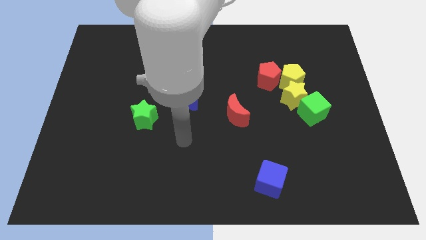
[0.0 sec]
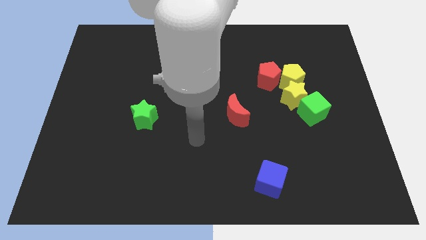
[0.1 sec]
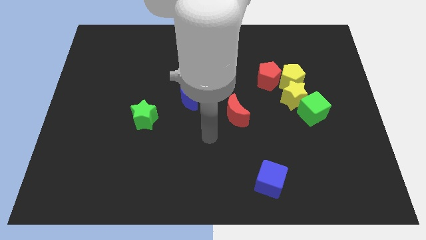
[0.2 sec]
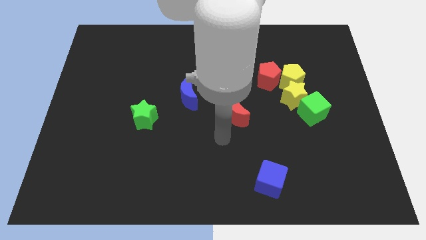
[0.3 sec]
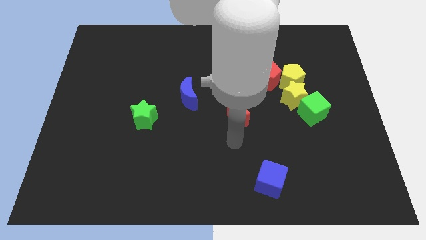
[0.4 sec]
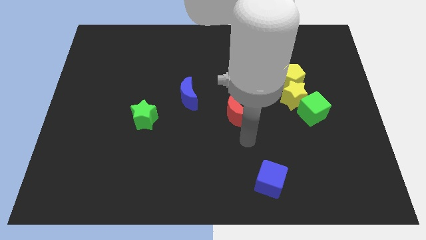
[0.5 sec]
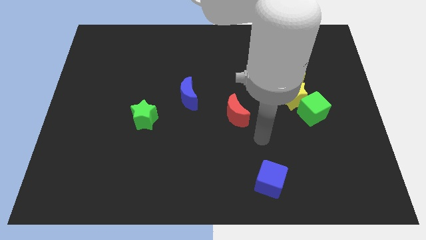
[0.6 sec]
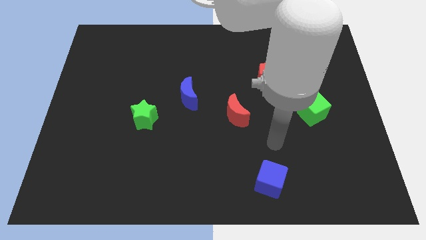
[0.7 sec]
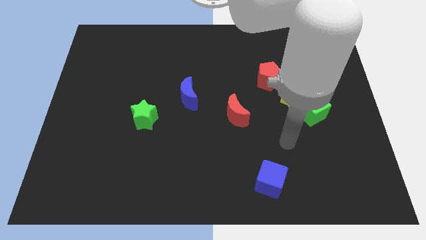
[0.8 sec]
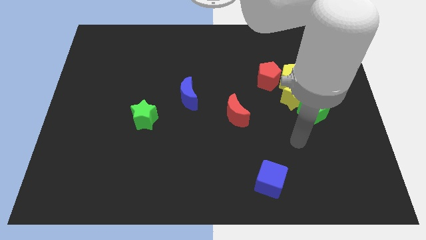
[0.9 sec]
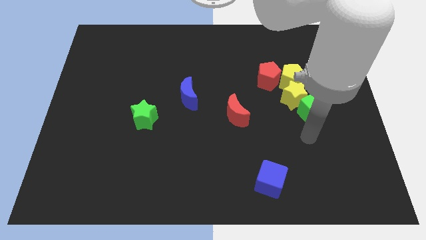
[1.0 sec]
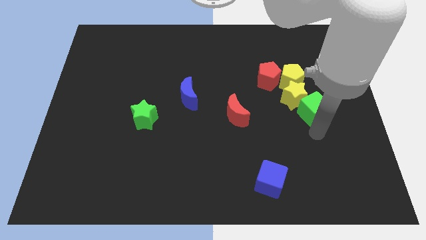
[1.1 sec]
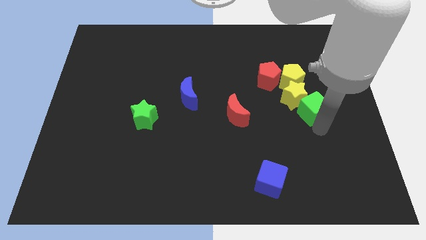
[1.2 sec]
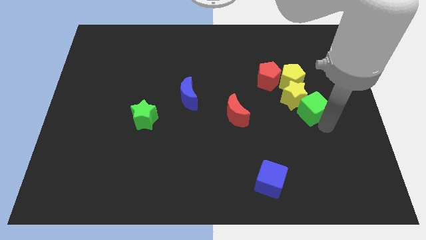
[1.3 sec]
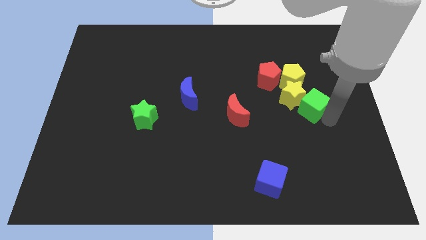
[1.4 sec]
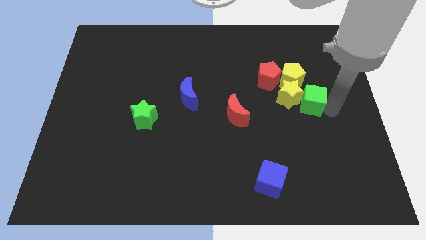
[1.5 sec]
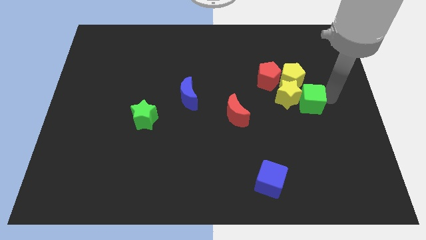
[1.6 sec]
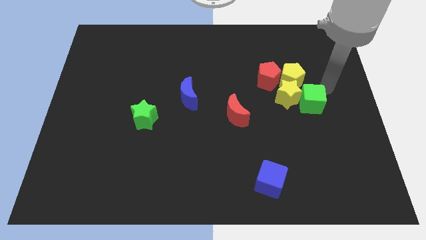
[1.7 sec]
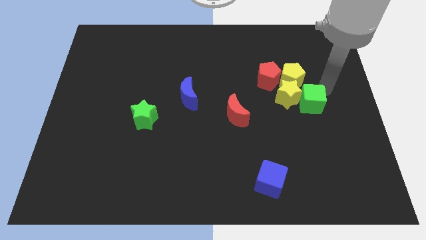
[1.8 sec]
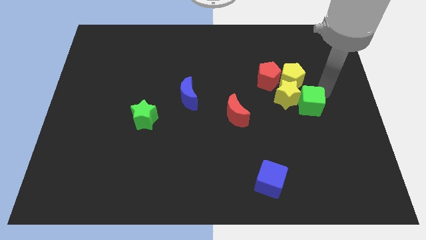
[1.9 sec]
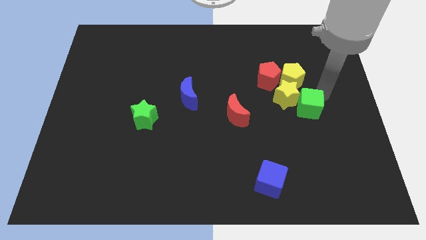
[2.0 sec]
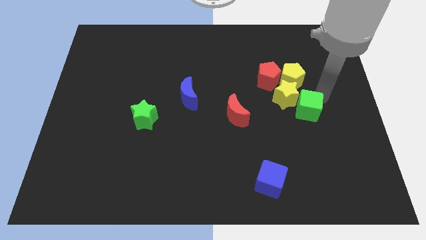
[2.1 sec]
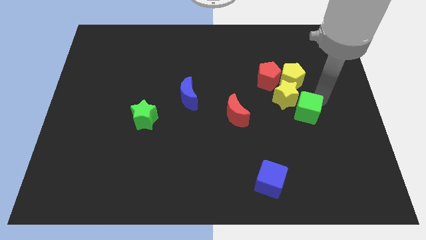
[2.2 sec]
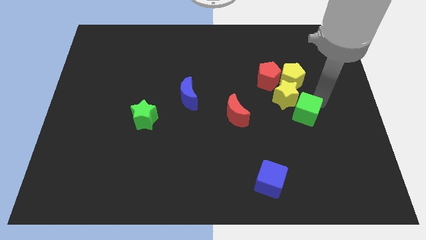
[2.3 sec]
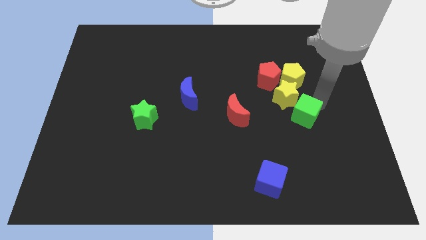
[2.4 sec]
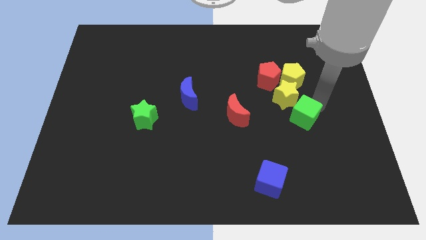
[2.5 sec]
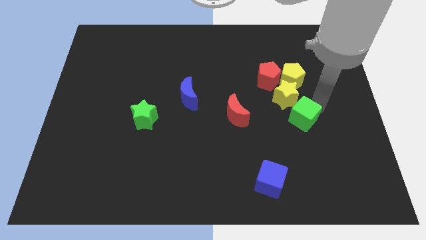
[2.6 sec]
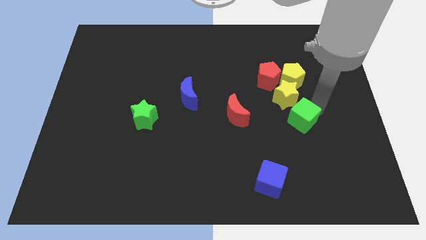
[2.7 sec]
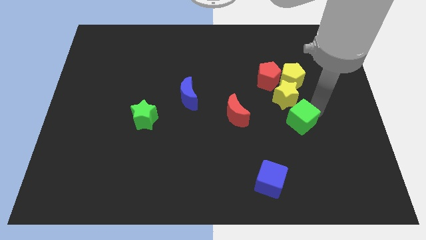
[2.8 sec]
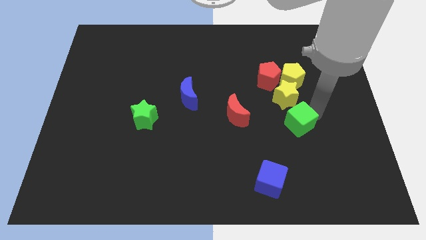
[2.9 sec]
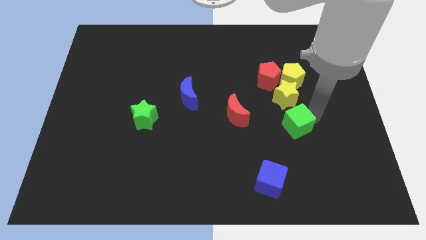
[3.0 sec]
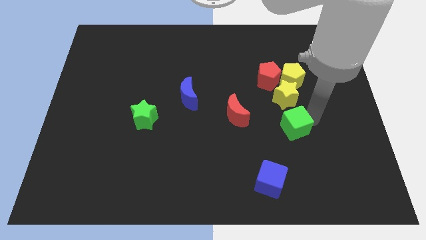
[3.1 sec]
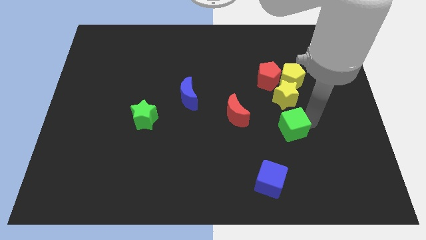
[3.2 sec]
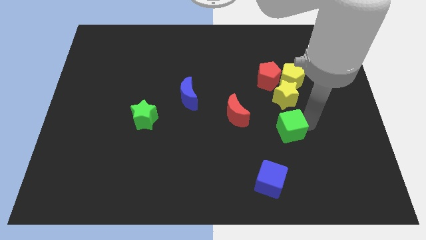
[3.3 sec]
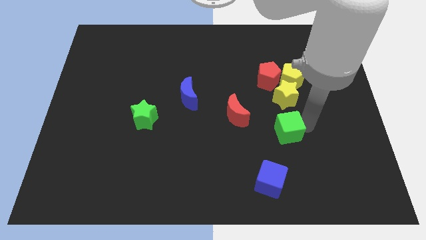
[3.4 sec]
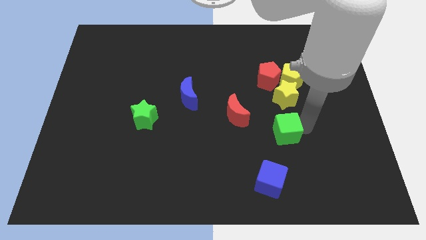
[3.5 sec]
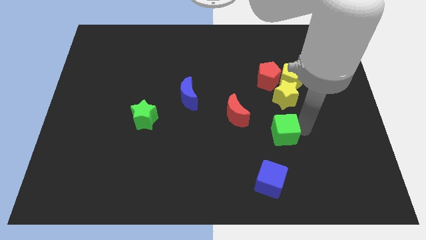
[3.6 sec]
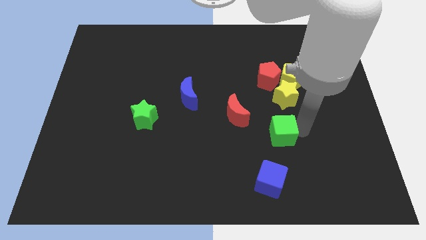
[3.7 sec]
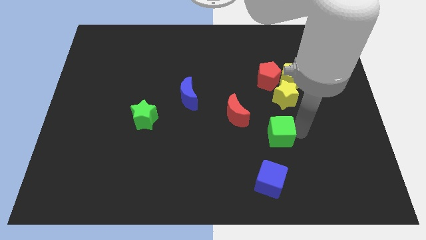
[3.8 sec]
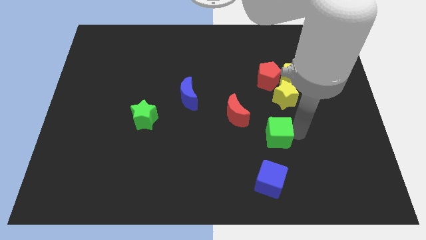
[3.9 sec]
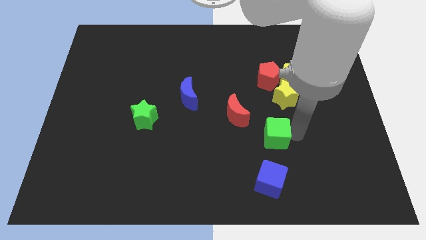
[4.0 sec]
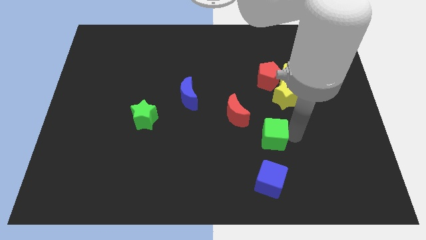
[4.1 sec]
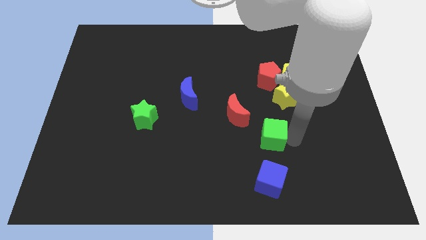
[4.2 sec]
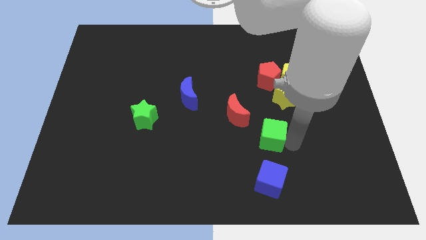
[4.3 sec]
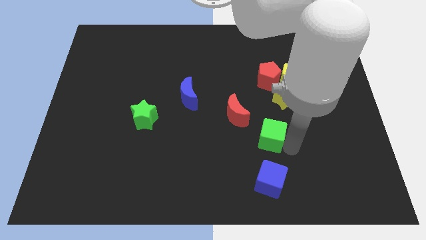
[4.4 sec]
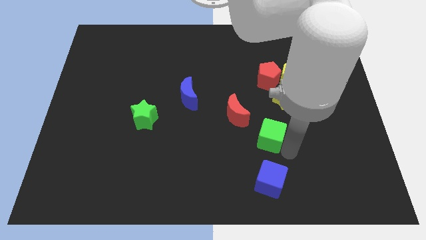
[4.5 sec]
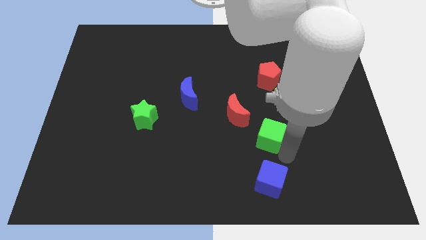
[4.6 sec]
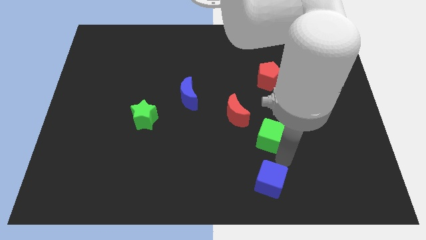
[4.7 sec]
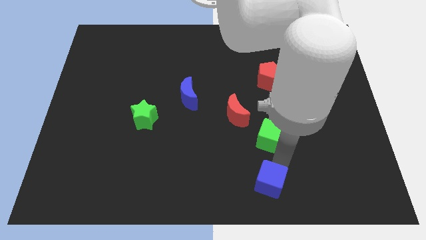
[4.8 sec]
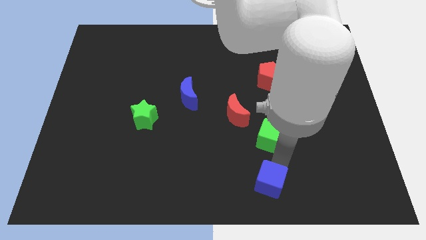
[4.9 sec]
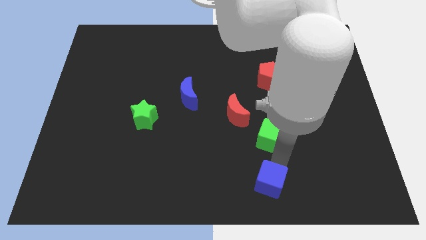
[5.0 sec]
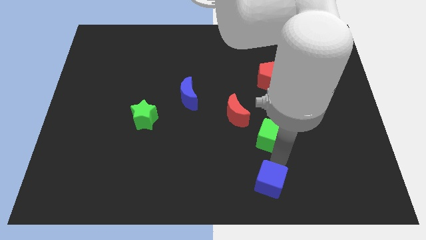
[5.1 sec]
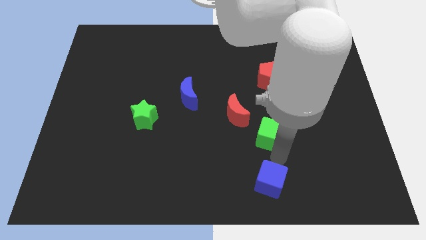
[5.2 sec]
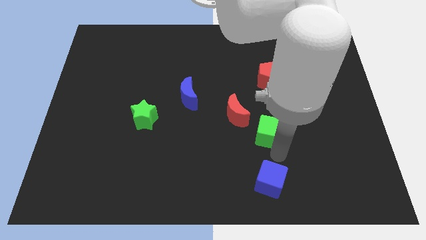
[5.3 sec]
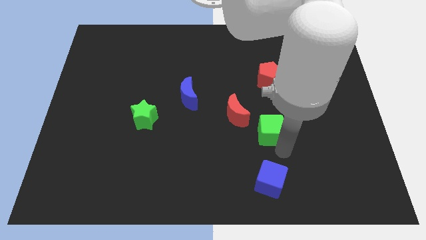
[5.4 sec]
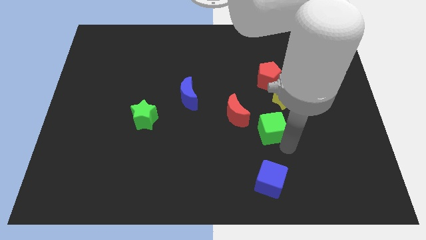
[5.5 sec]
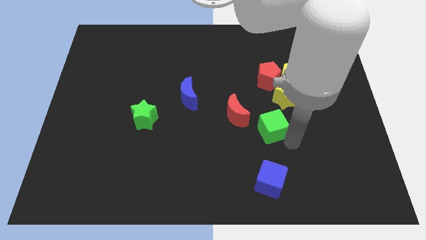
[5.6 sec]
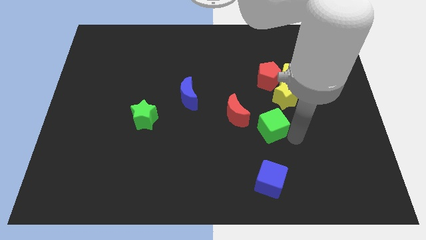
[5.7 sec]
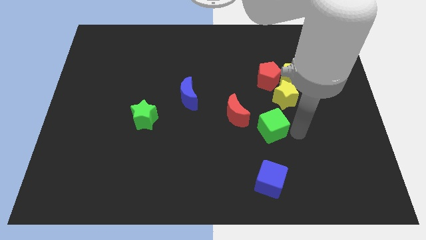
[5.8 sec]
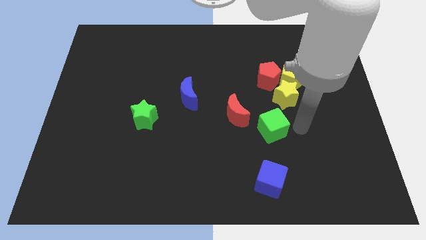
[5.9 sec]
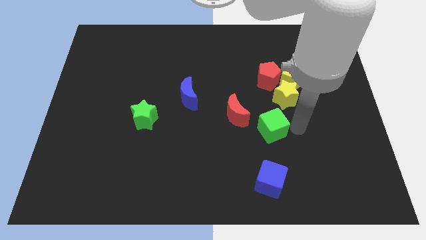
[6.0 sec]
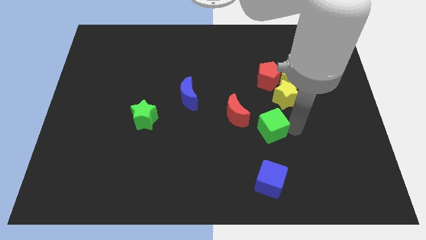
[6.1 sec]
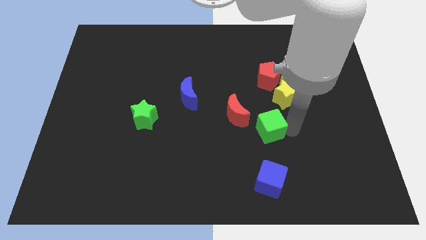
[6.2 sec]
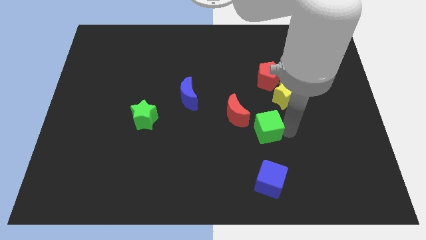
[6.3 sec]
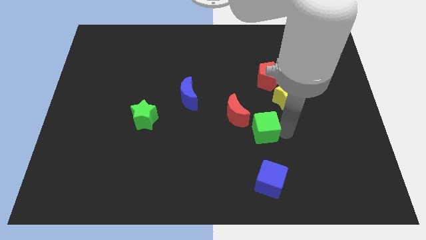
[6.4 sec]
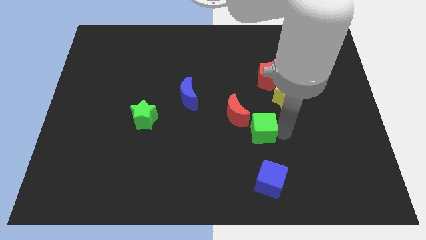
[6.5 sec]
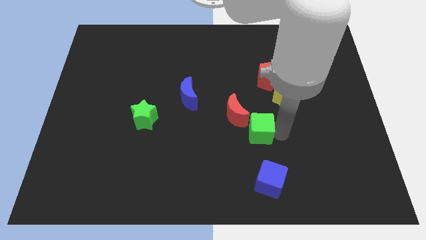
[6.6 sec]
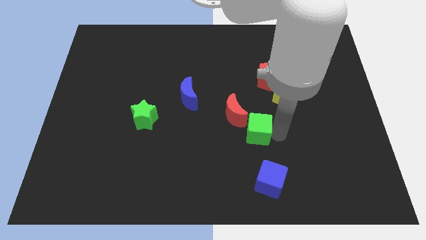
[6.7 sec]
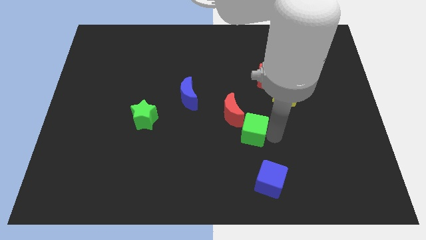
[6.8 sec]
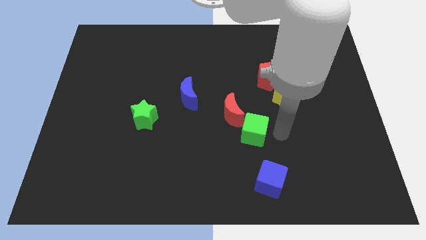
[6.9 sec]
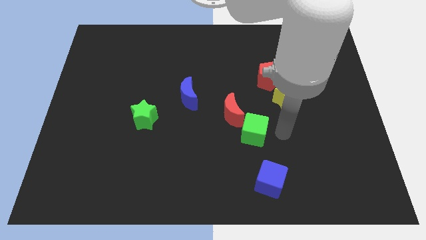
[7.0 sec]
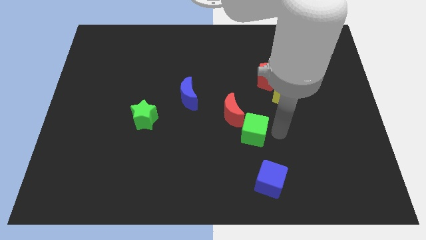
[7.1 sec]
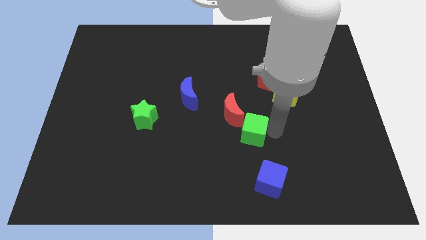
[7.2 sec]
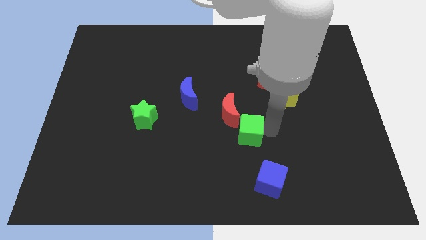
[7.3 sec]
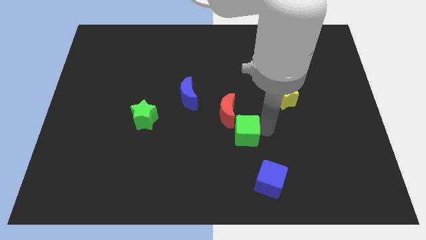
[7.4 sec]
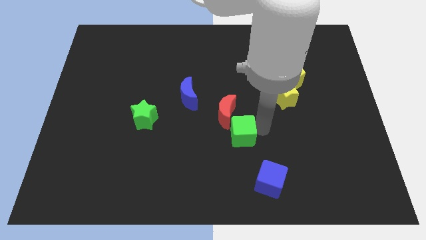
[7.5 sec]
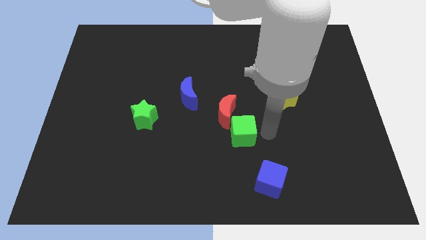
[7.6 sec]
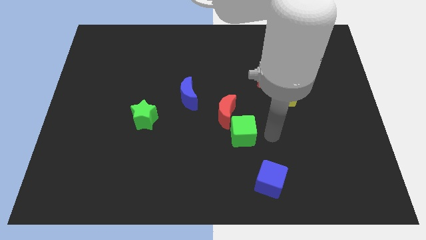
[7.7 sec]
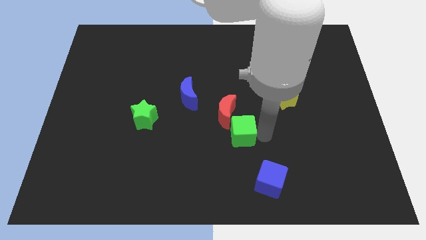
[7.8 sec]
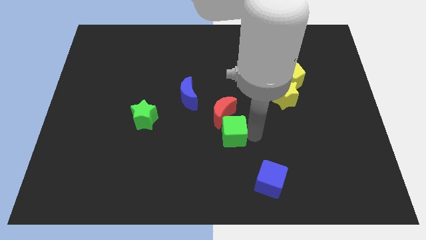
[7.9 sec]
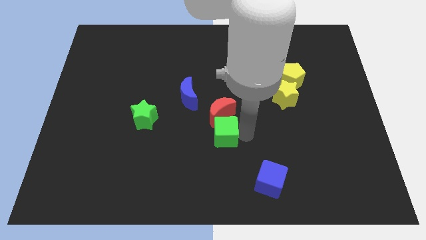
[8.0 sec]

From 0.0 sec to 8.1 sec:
slide the green cube to the bottom left of the red moon
